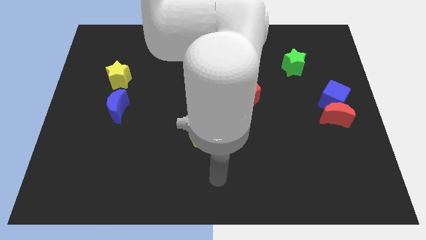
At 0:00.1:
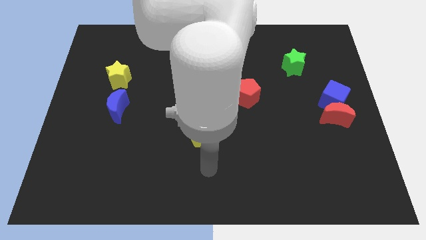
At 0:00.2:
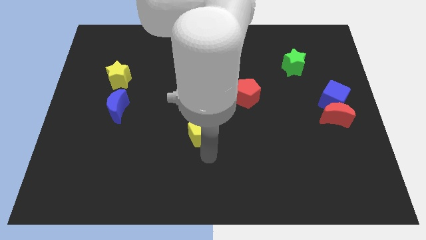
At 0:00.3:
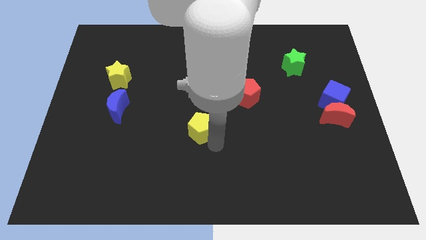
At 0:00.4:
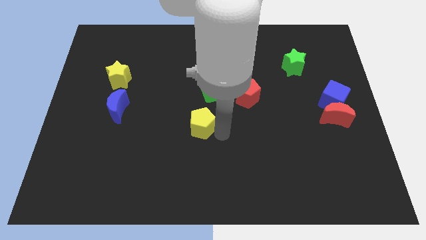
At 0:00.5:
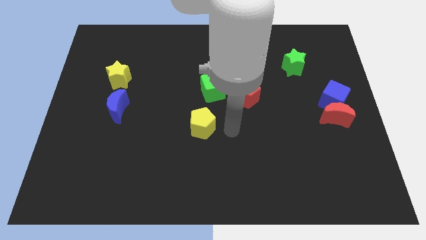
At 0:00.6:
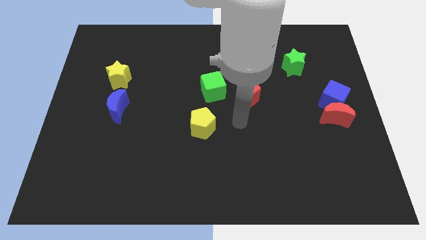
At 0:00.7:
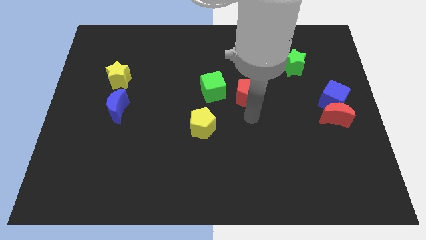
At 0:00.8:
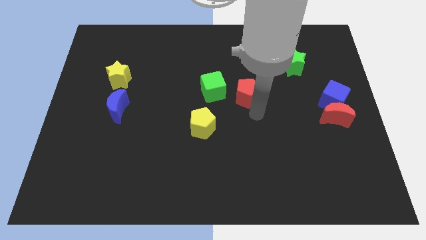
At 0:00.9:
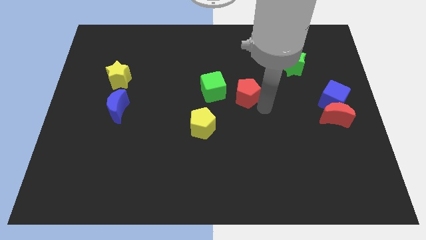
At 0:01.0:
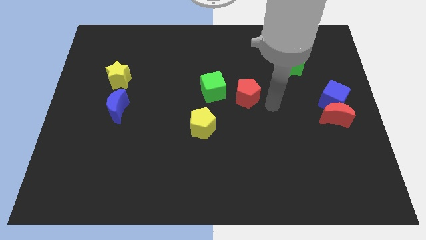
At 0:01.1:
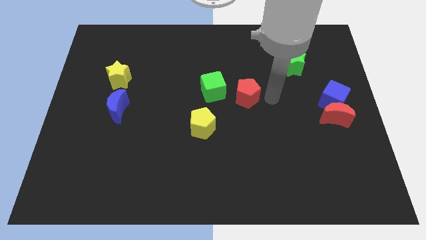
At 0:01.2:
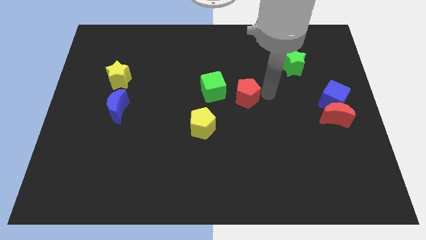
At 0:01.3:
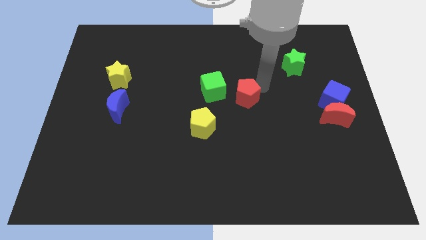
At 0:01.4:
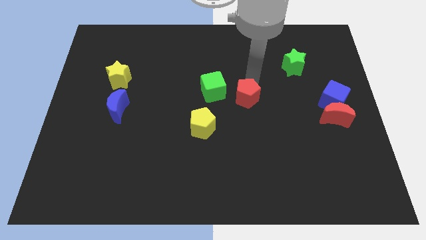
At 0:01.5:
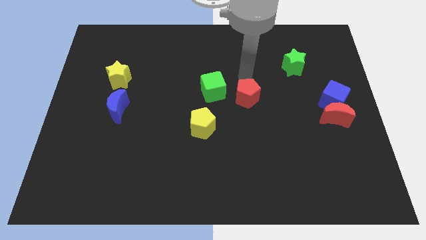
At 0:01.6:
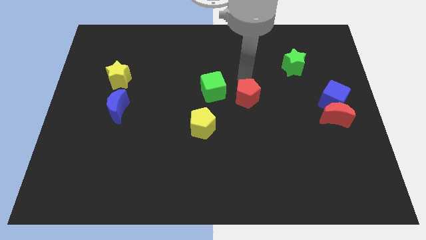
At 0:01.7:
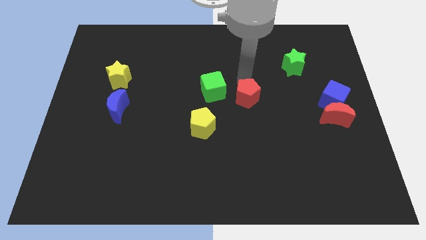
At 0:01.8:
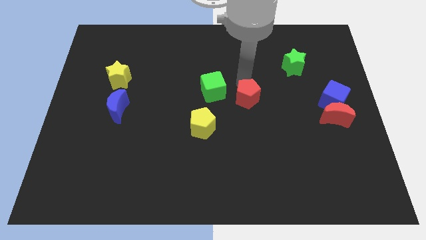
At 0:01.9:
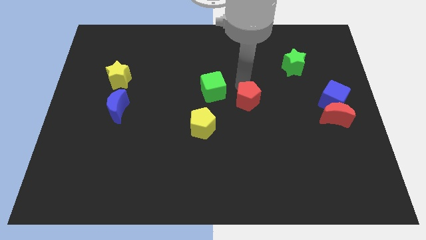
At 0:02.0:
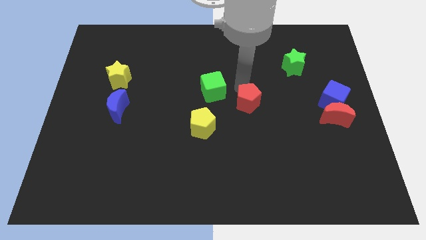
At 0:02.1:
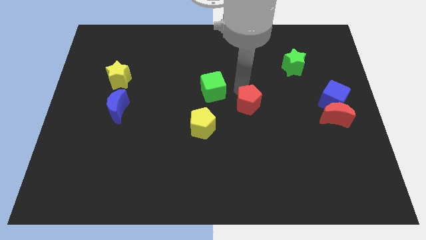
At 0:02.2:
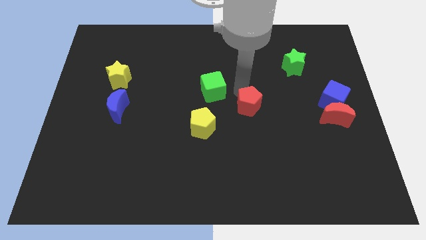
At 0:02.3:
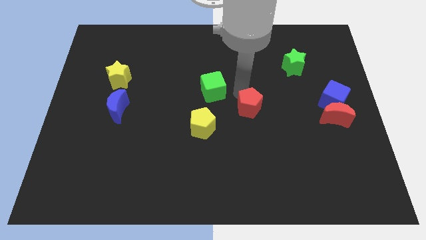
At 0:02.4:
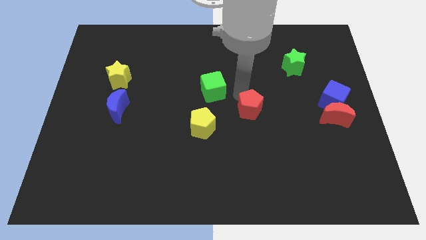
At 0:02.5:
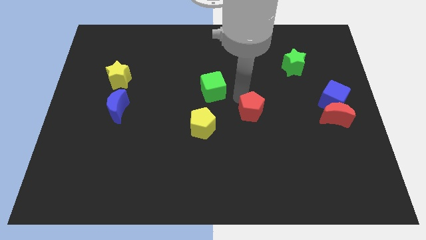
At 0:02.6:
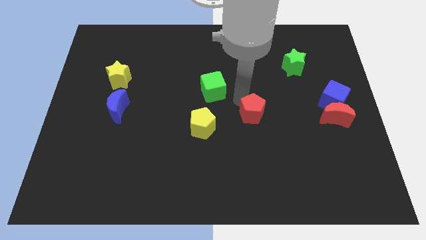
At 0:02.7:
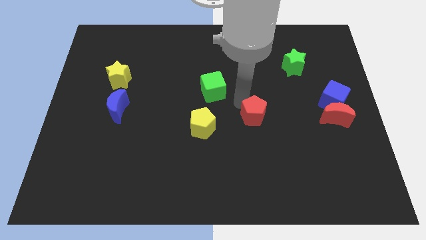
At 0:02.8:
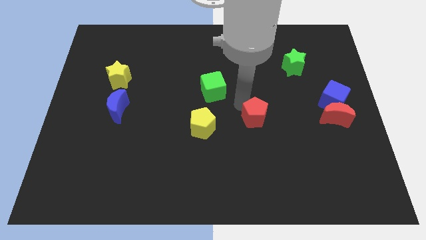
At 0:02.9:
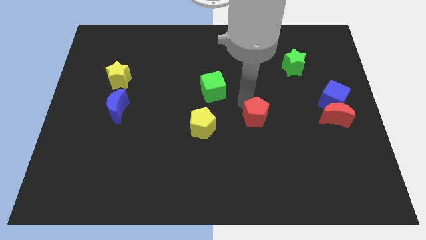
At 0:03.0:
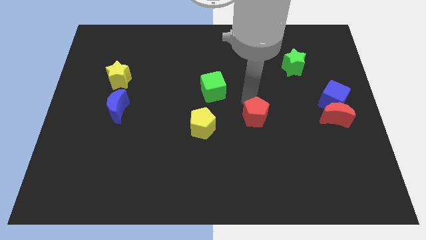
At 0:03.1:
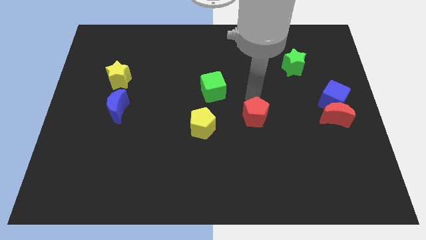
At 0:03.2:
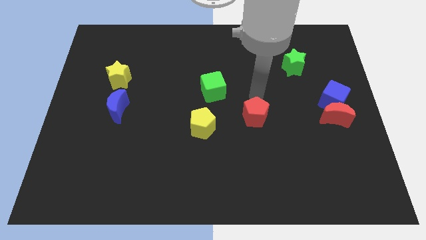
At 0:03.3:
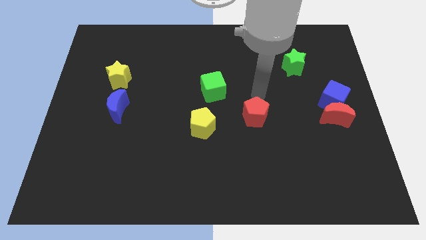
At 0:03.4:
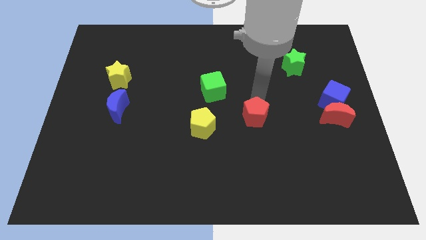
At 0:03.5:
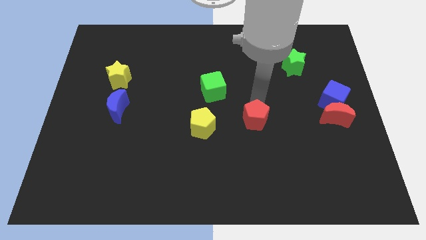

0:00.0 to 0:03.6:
slightly move the red pentagon down

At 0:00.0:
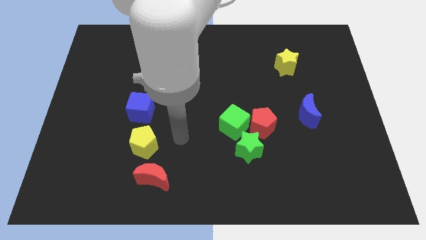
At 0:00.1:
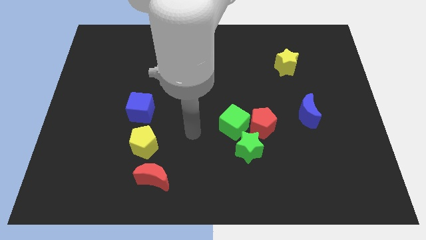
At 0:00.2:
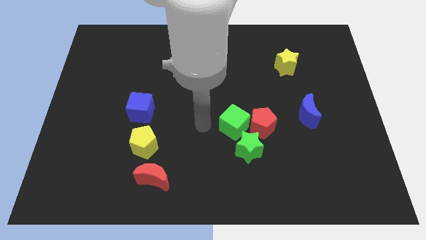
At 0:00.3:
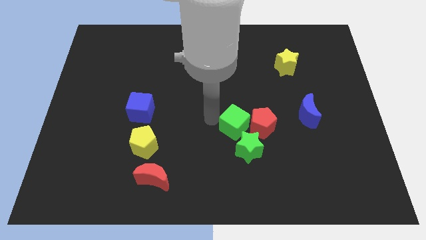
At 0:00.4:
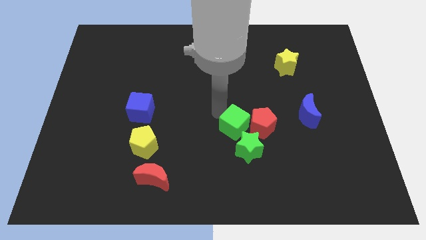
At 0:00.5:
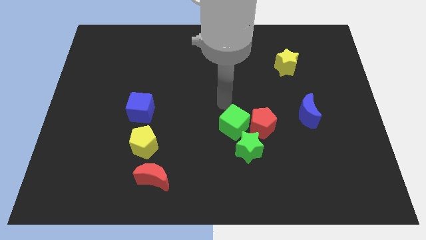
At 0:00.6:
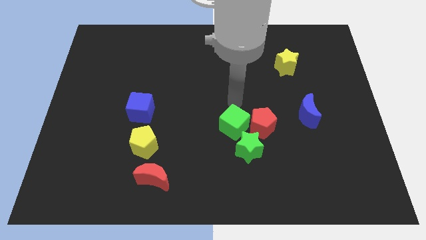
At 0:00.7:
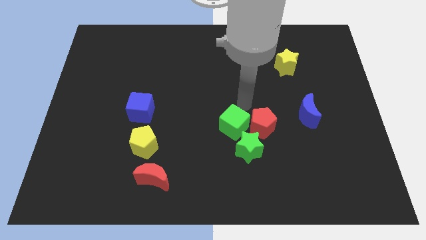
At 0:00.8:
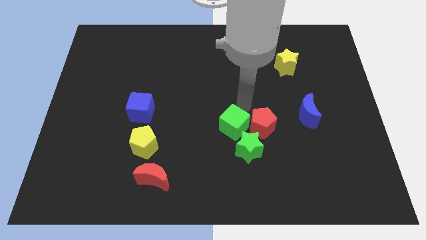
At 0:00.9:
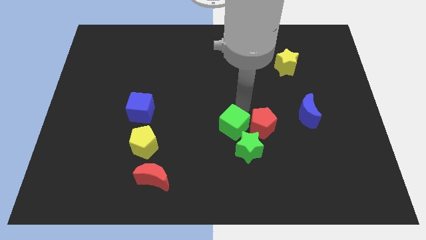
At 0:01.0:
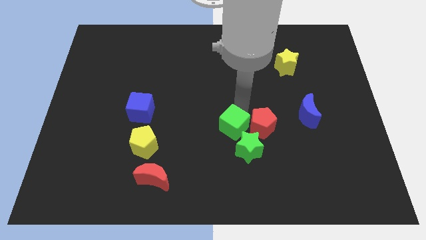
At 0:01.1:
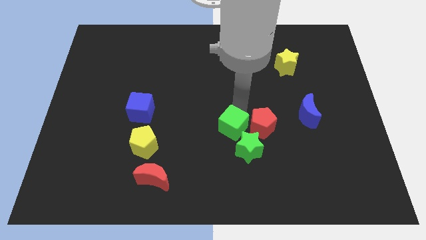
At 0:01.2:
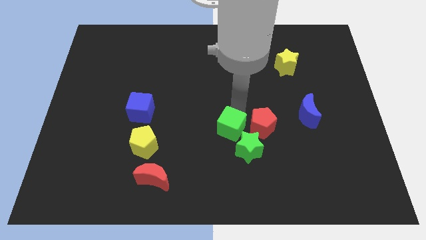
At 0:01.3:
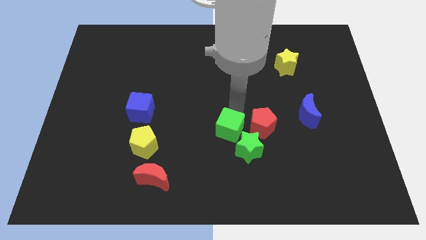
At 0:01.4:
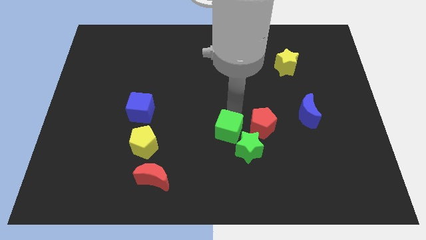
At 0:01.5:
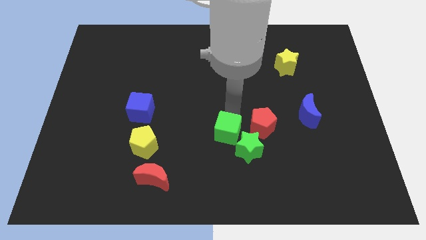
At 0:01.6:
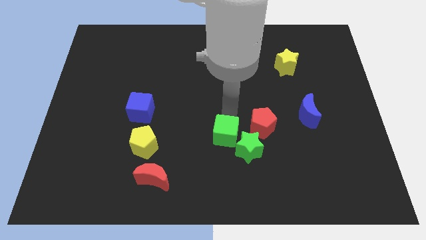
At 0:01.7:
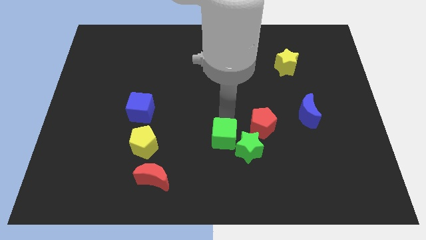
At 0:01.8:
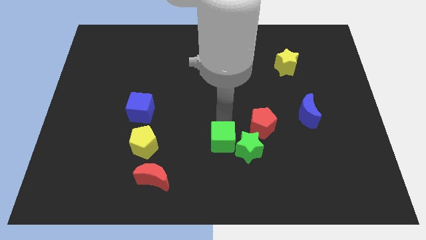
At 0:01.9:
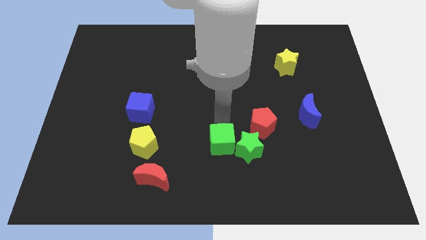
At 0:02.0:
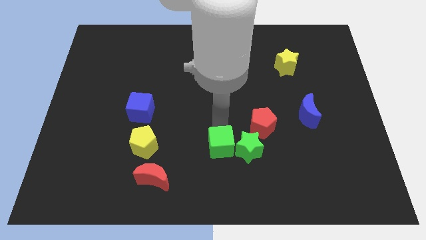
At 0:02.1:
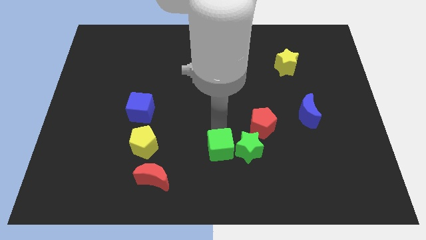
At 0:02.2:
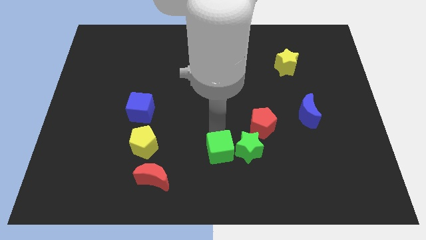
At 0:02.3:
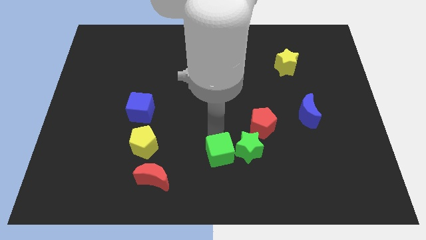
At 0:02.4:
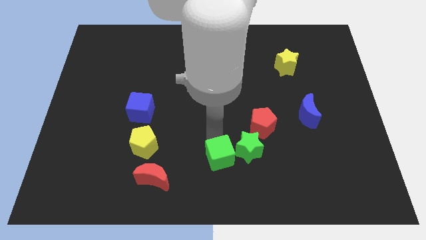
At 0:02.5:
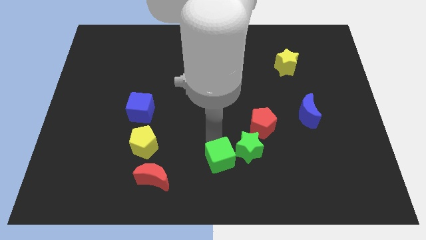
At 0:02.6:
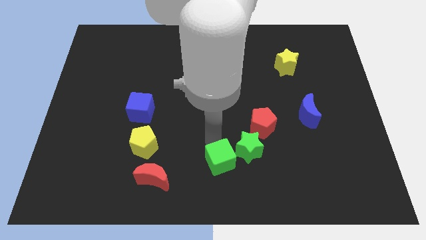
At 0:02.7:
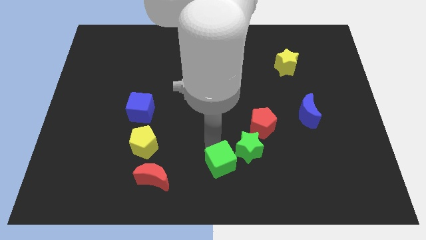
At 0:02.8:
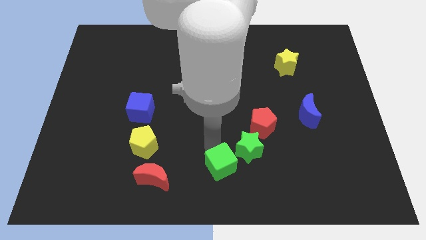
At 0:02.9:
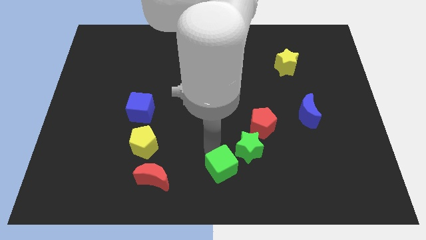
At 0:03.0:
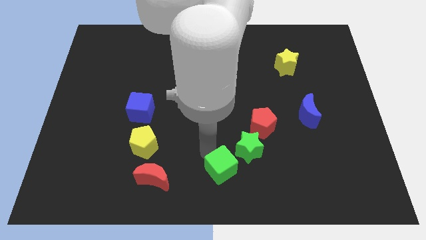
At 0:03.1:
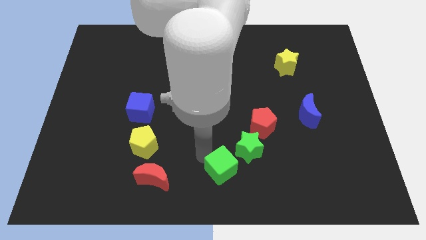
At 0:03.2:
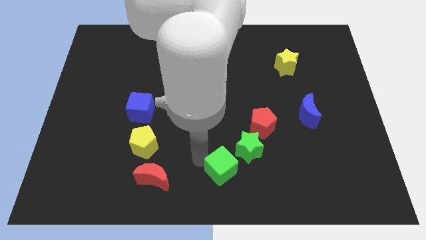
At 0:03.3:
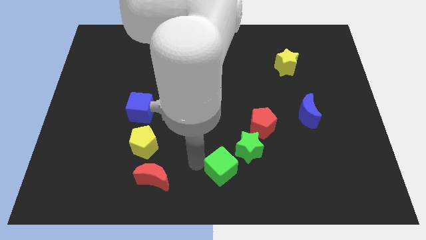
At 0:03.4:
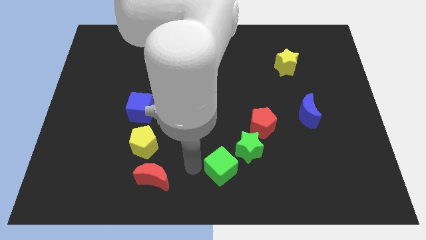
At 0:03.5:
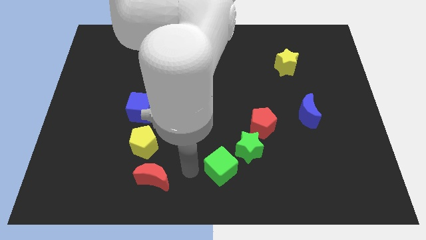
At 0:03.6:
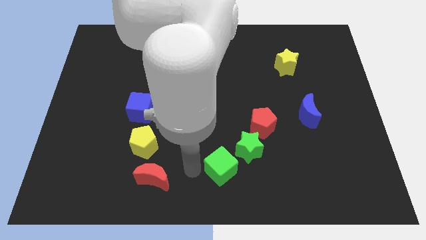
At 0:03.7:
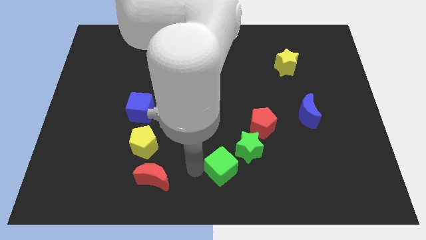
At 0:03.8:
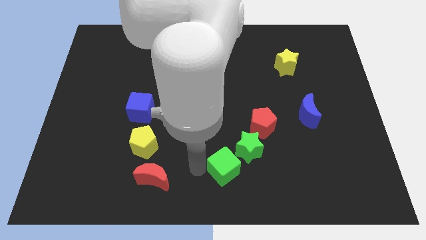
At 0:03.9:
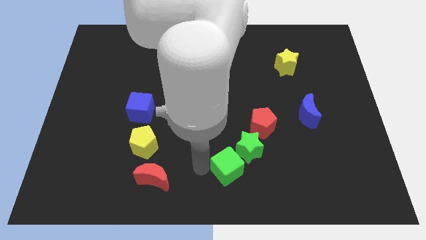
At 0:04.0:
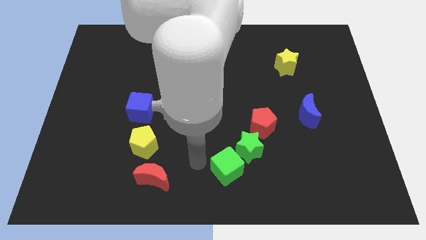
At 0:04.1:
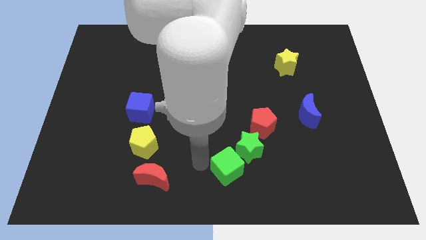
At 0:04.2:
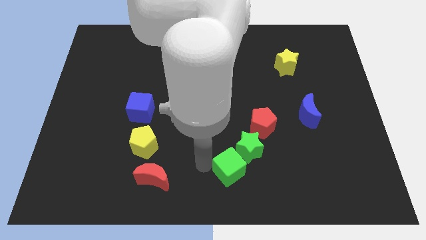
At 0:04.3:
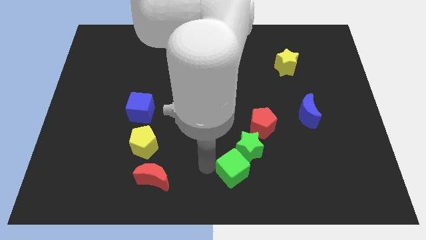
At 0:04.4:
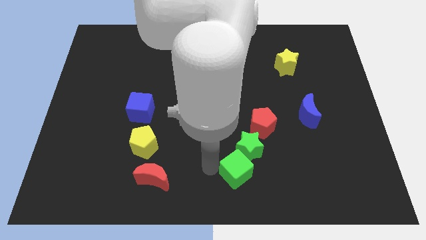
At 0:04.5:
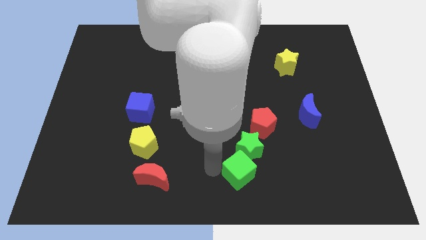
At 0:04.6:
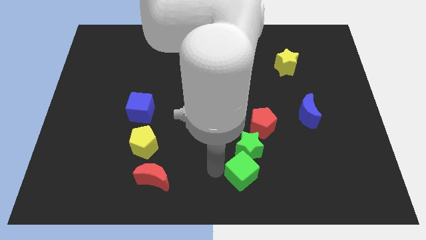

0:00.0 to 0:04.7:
slightly move the green cube diagonally down and right

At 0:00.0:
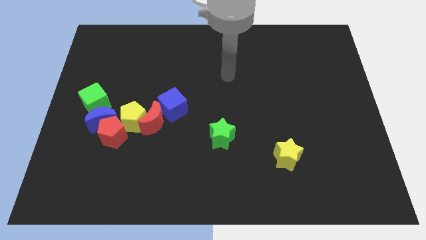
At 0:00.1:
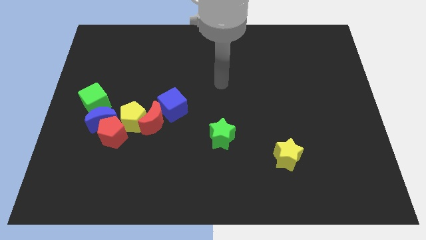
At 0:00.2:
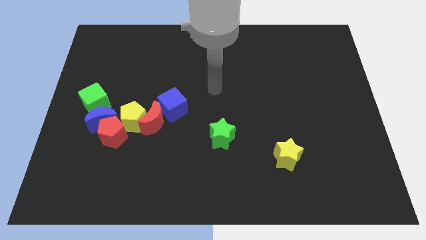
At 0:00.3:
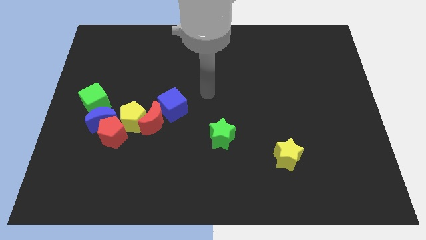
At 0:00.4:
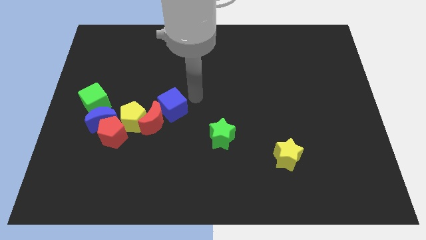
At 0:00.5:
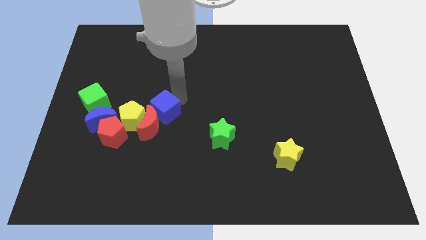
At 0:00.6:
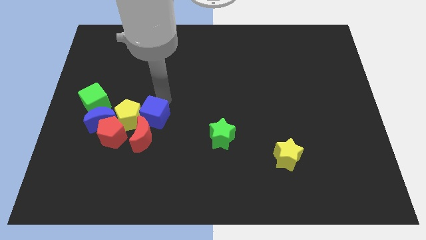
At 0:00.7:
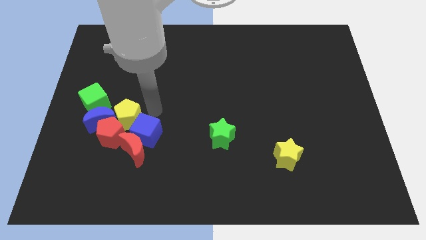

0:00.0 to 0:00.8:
slide the red moon slightly down and left
